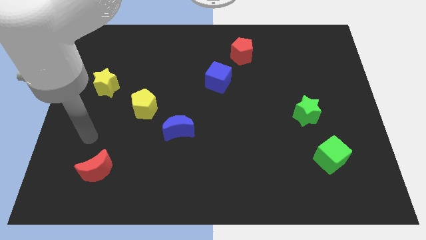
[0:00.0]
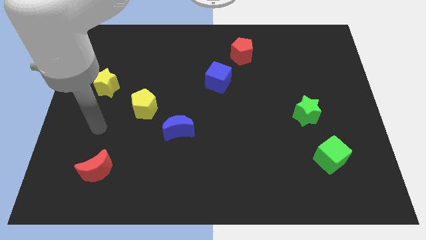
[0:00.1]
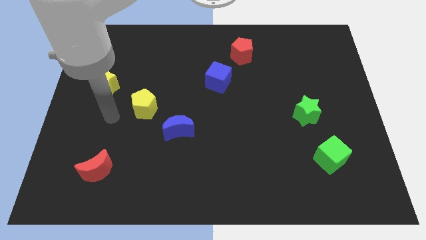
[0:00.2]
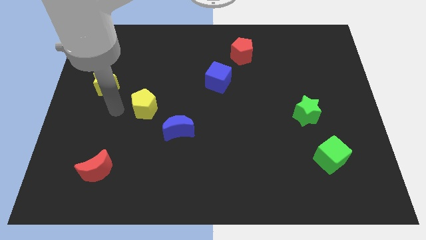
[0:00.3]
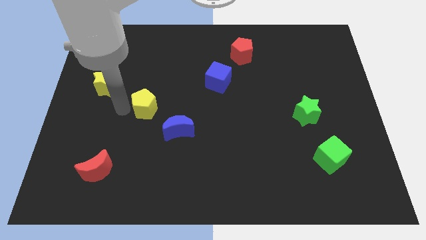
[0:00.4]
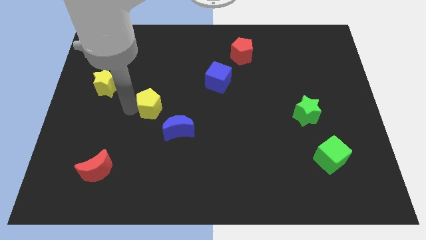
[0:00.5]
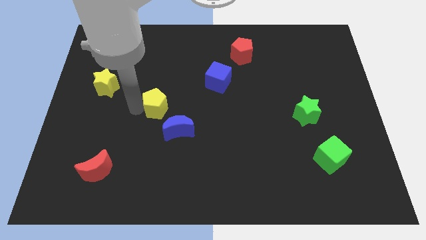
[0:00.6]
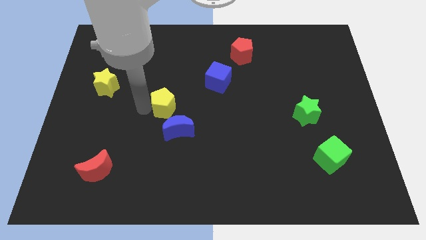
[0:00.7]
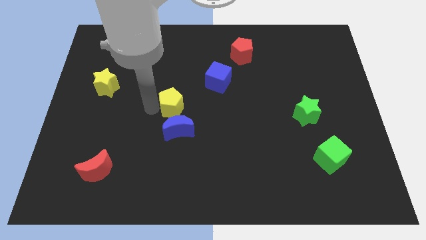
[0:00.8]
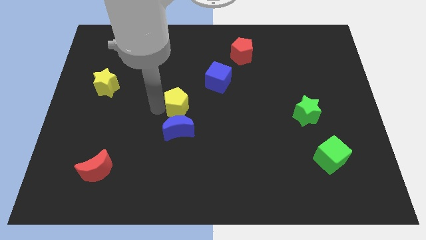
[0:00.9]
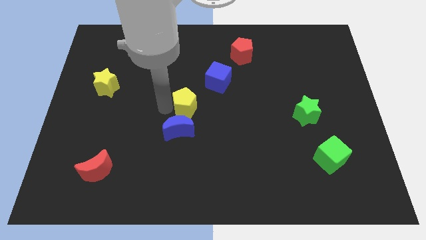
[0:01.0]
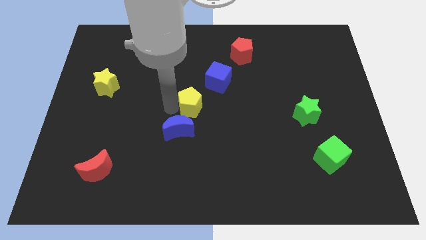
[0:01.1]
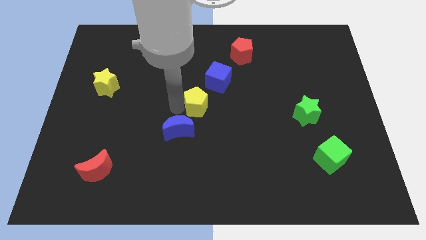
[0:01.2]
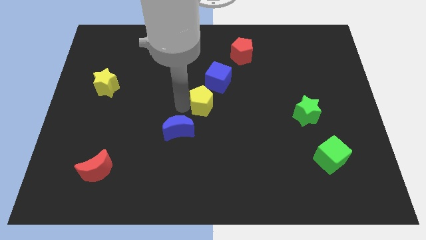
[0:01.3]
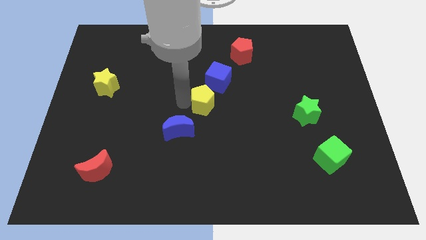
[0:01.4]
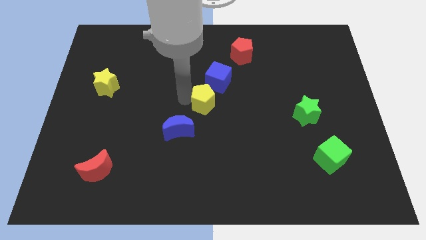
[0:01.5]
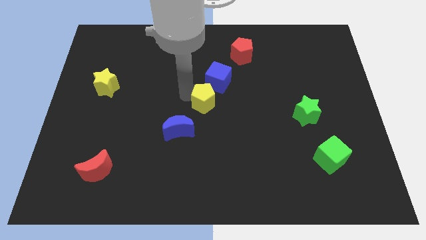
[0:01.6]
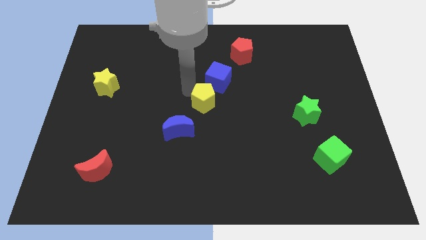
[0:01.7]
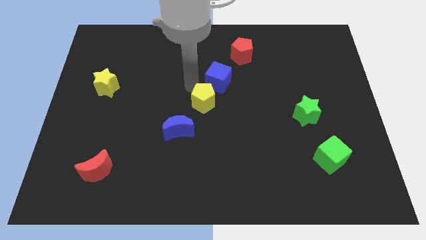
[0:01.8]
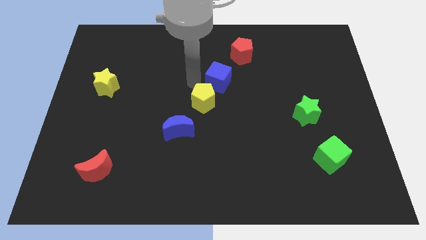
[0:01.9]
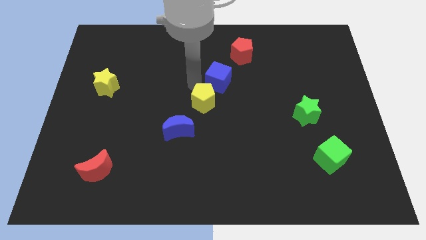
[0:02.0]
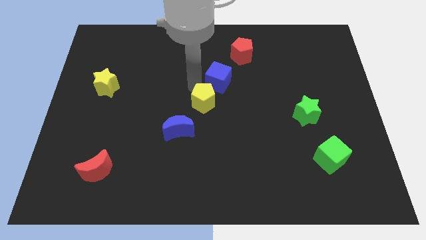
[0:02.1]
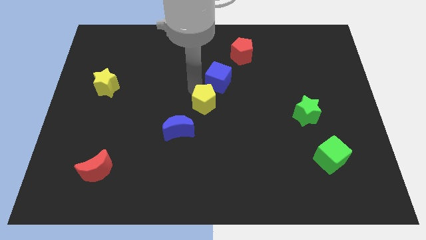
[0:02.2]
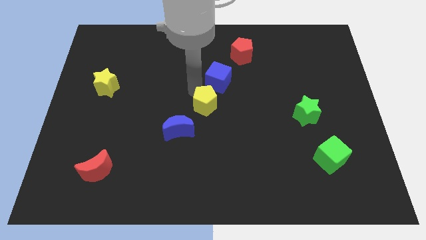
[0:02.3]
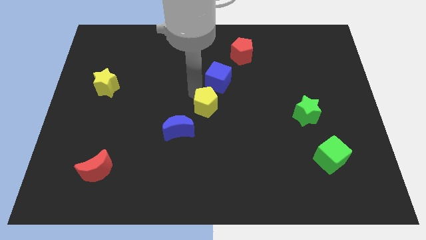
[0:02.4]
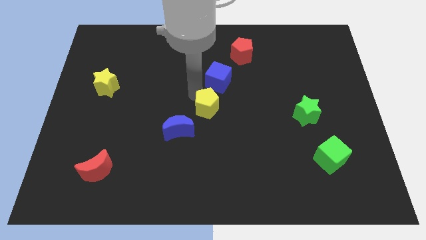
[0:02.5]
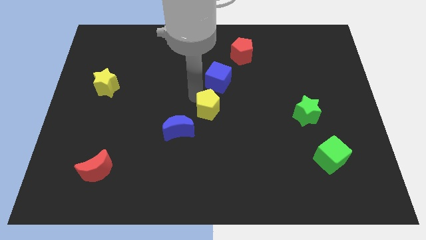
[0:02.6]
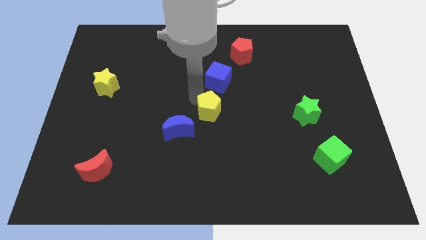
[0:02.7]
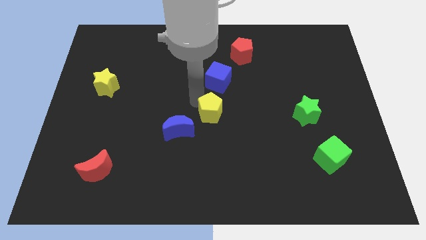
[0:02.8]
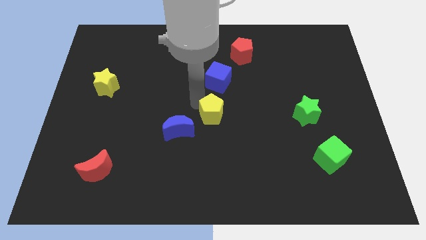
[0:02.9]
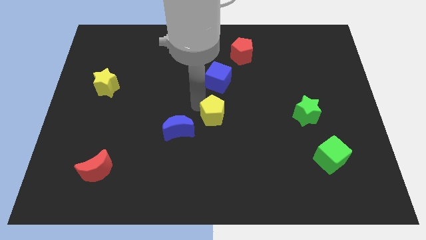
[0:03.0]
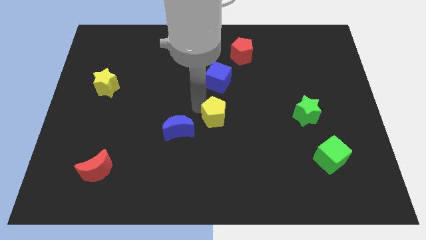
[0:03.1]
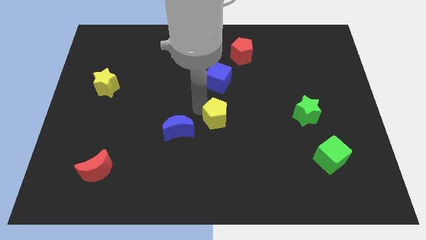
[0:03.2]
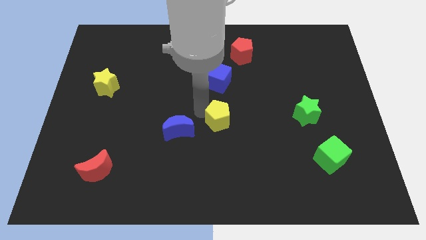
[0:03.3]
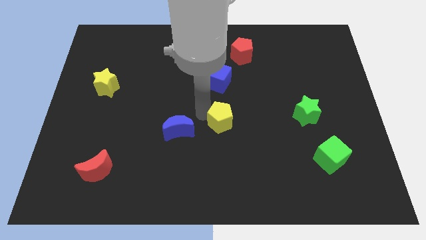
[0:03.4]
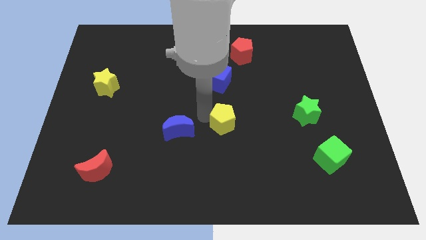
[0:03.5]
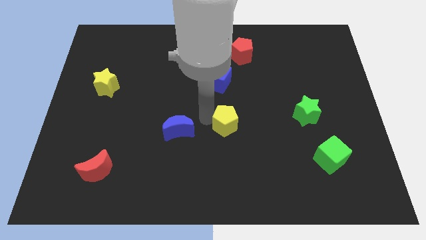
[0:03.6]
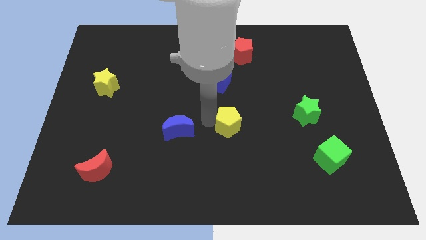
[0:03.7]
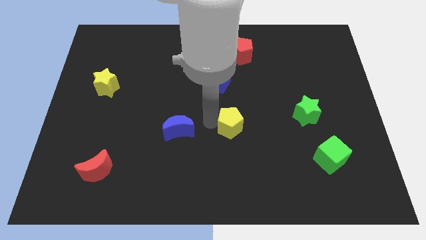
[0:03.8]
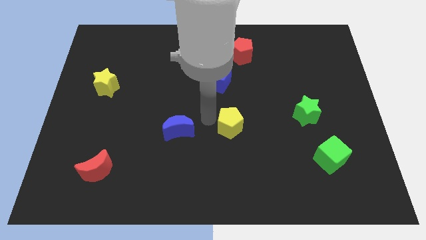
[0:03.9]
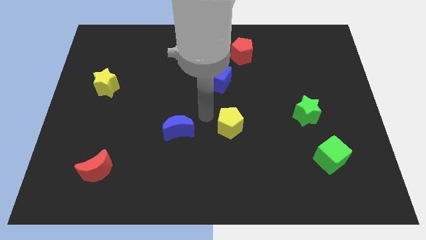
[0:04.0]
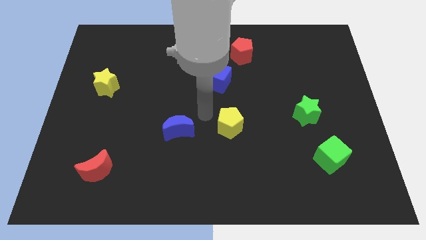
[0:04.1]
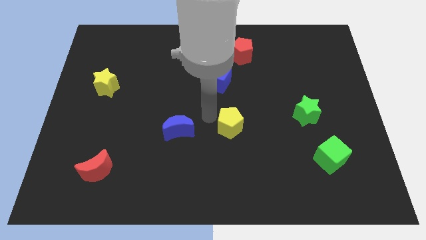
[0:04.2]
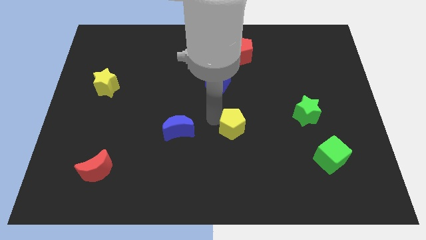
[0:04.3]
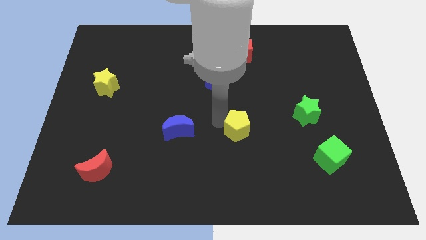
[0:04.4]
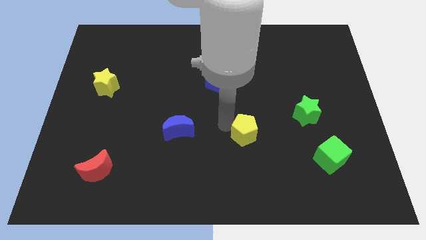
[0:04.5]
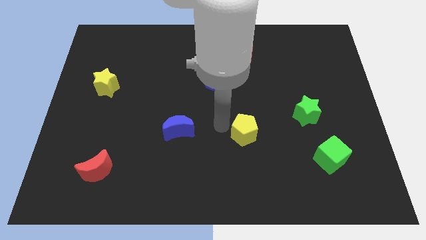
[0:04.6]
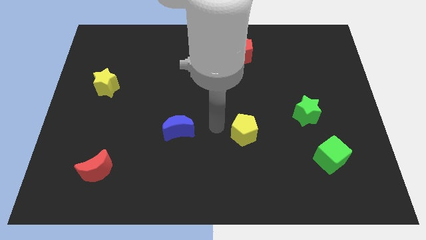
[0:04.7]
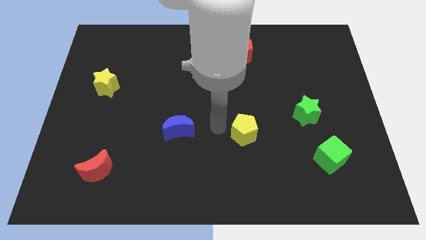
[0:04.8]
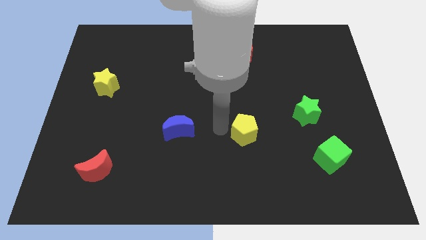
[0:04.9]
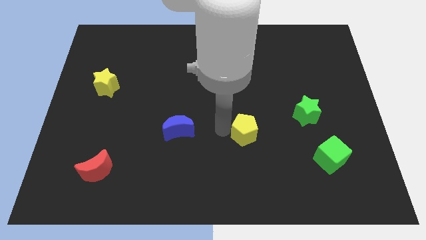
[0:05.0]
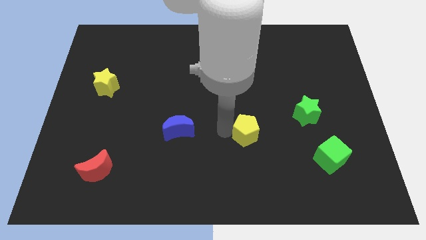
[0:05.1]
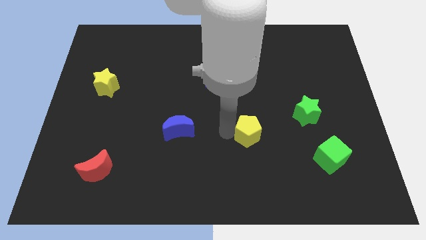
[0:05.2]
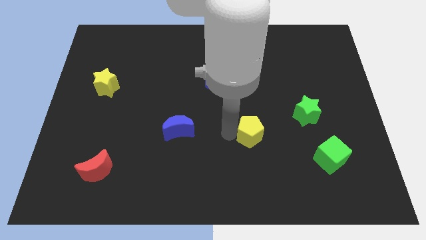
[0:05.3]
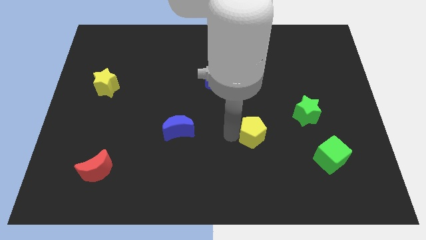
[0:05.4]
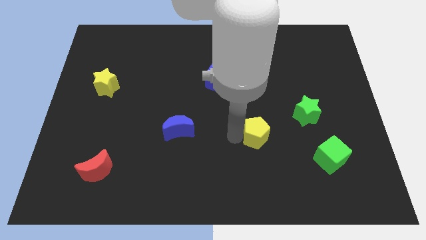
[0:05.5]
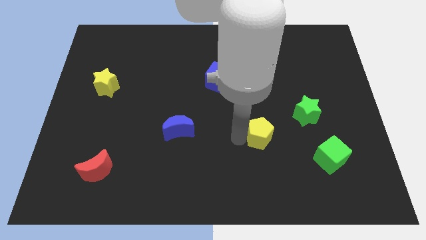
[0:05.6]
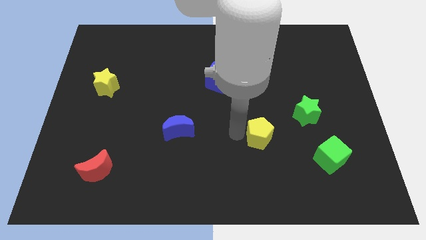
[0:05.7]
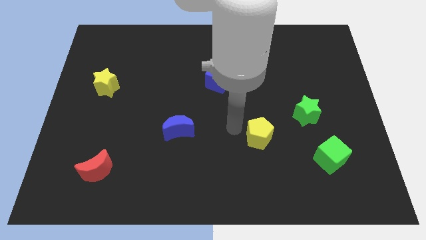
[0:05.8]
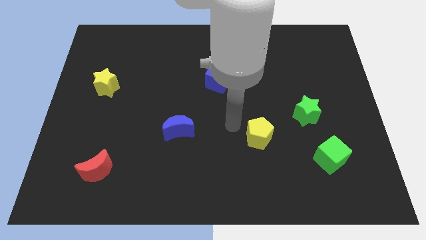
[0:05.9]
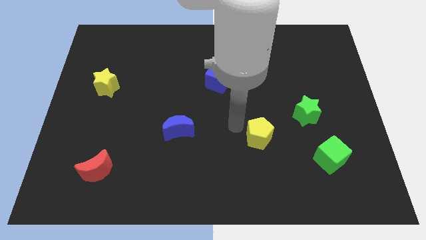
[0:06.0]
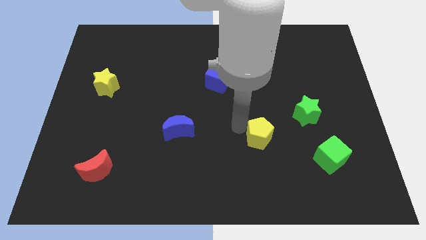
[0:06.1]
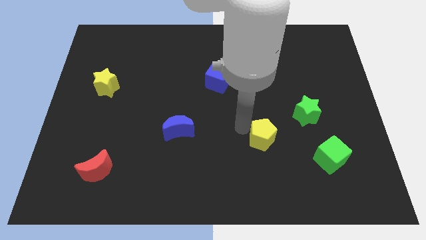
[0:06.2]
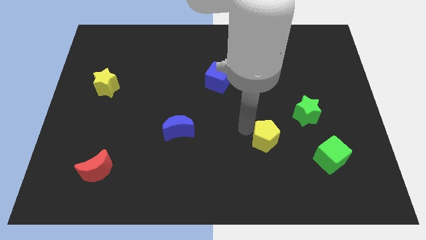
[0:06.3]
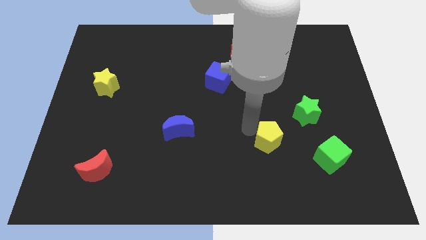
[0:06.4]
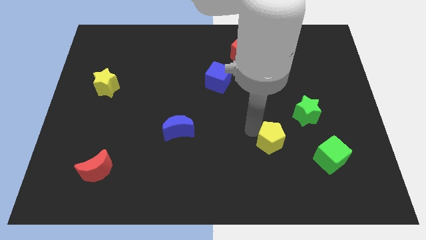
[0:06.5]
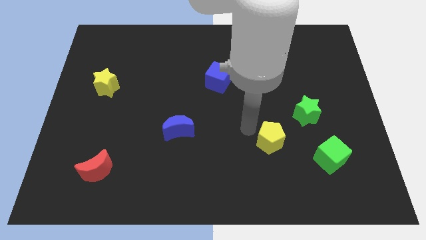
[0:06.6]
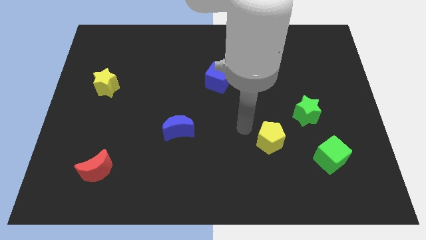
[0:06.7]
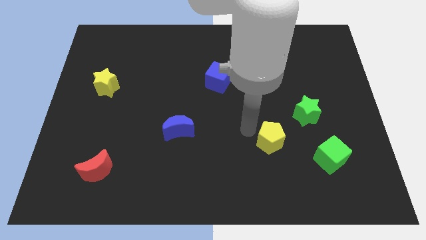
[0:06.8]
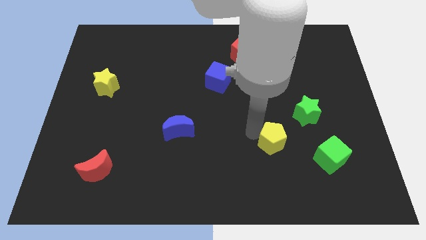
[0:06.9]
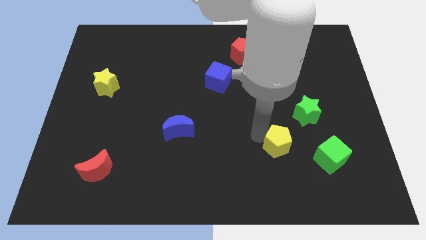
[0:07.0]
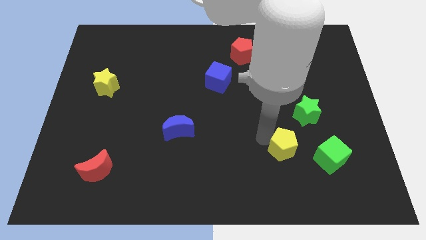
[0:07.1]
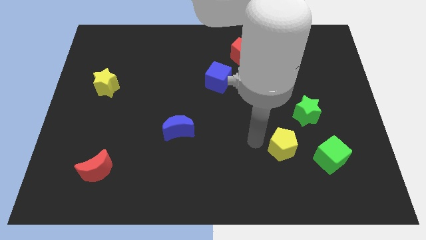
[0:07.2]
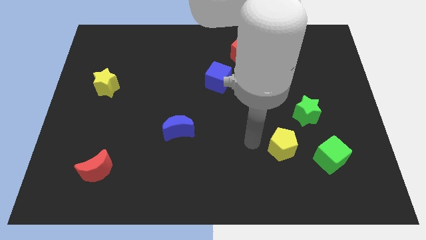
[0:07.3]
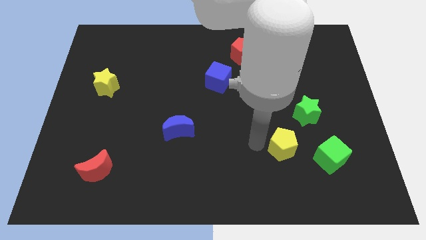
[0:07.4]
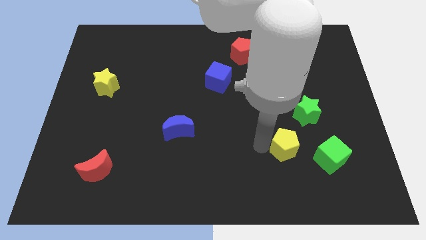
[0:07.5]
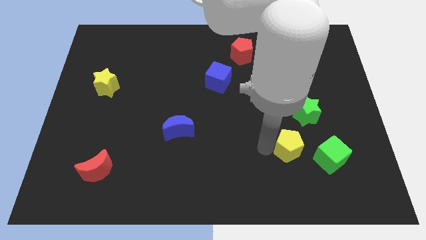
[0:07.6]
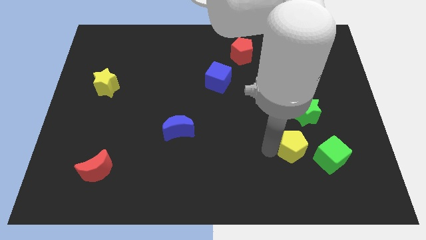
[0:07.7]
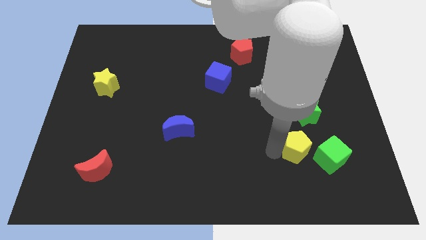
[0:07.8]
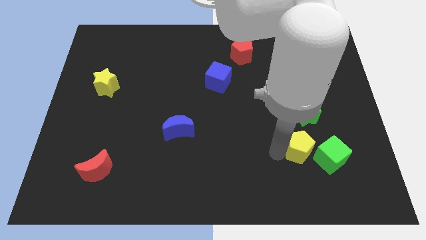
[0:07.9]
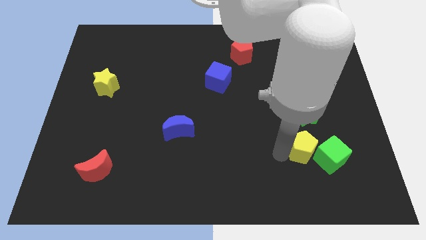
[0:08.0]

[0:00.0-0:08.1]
push the yellow pentagon next to the green cube
